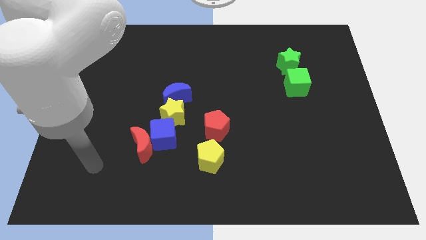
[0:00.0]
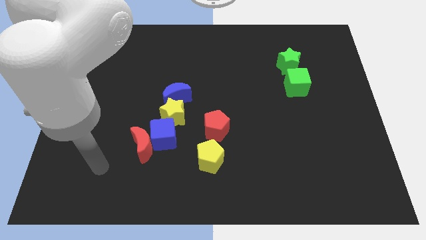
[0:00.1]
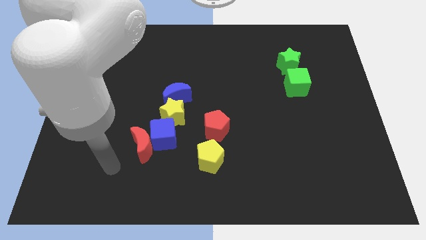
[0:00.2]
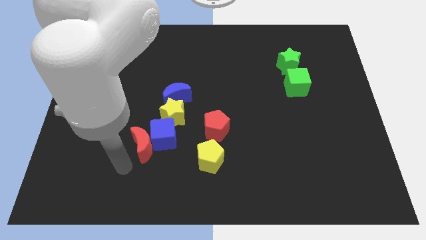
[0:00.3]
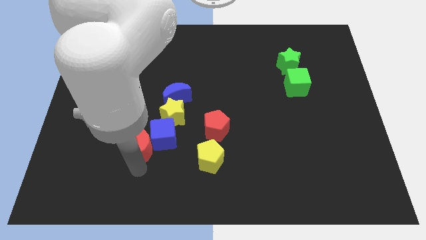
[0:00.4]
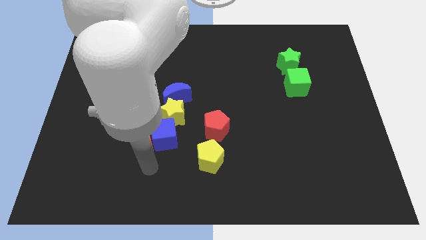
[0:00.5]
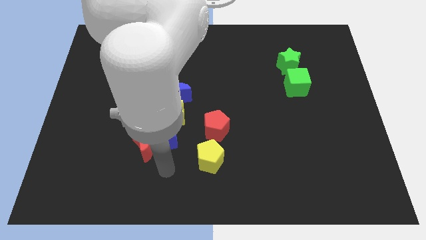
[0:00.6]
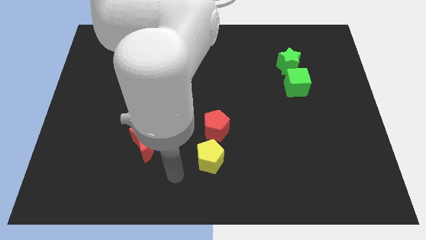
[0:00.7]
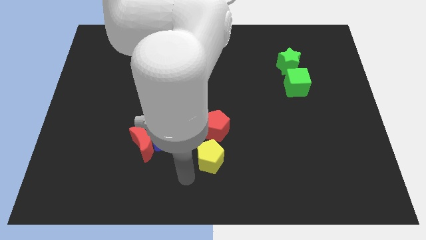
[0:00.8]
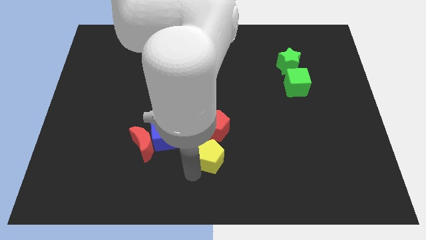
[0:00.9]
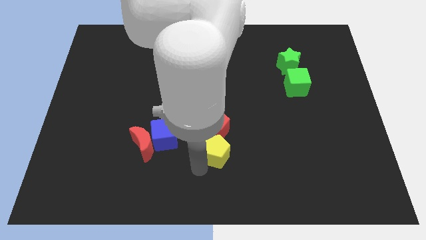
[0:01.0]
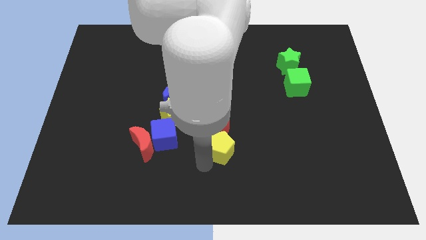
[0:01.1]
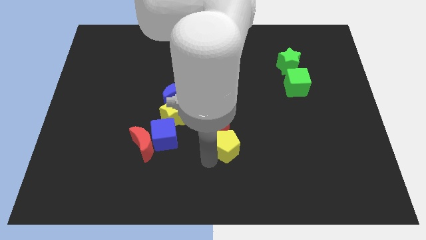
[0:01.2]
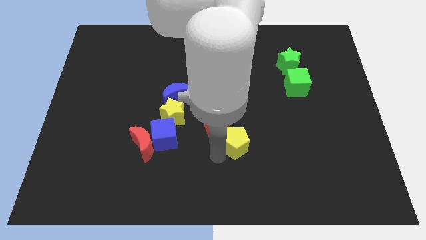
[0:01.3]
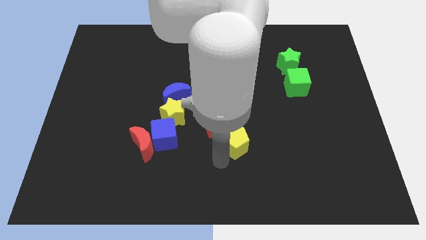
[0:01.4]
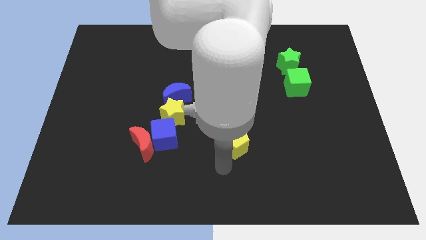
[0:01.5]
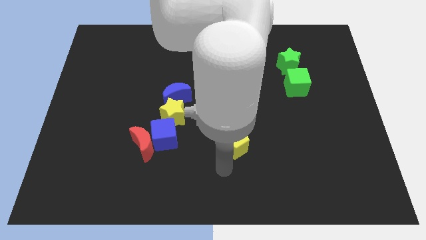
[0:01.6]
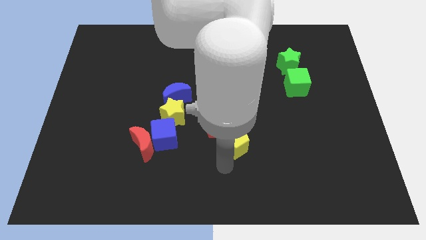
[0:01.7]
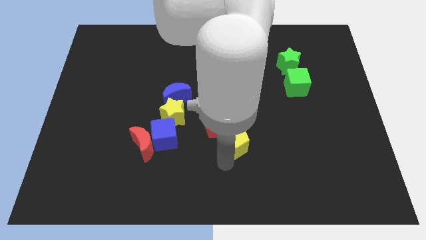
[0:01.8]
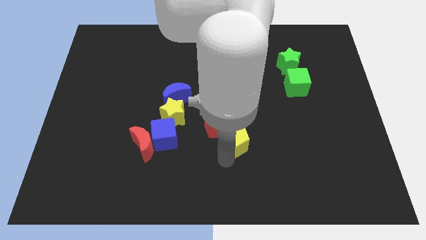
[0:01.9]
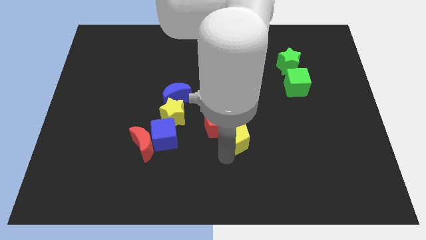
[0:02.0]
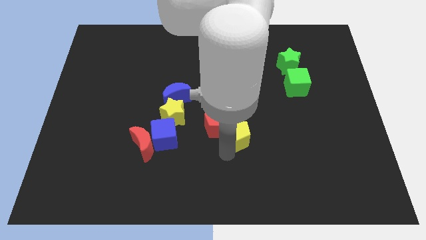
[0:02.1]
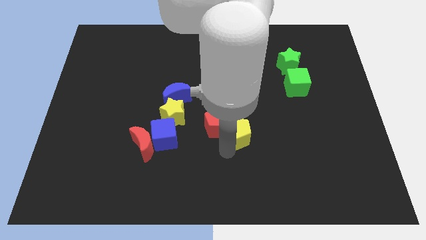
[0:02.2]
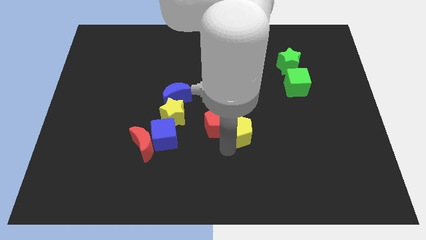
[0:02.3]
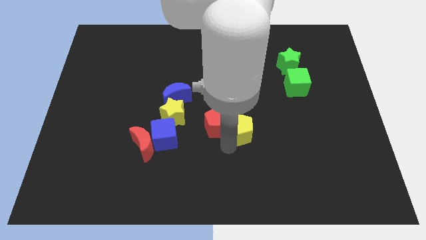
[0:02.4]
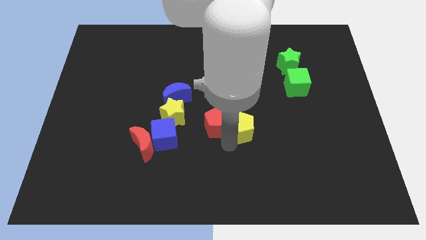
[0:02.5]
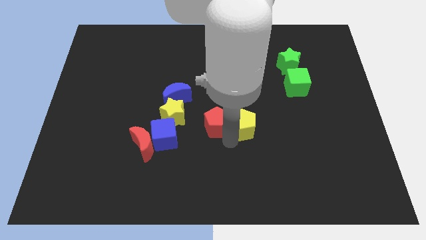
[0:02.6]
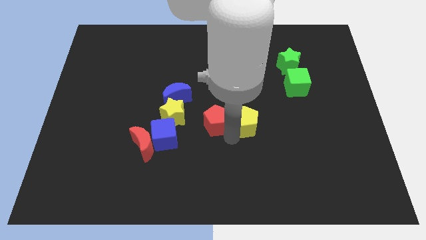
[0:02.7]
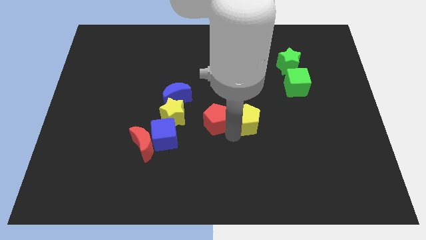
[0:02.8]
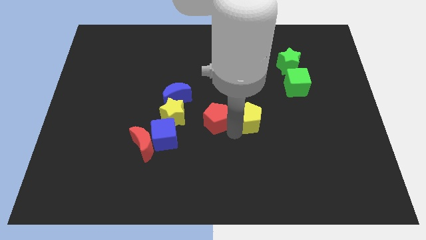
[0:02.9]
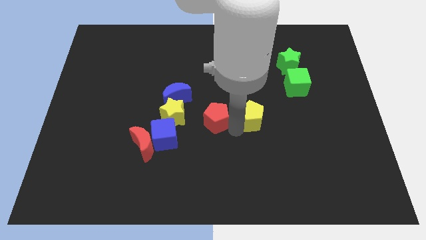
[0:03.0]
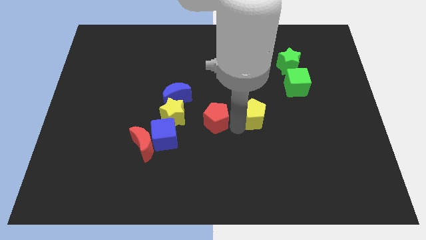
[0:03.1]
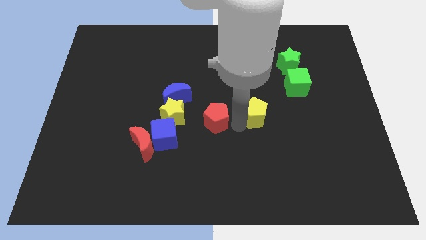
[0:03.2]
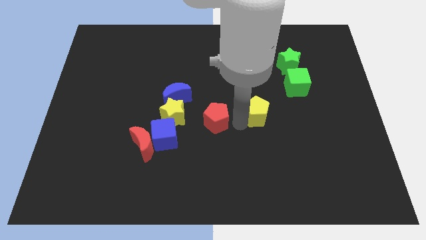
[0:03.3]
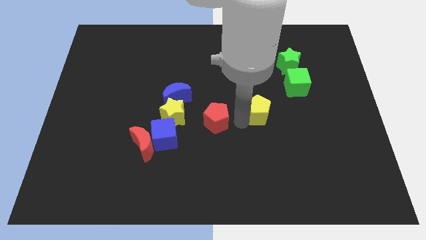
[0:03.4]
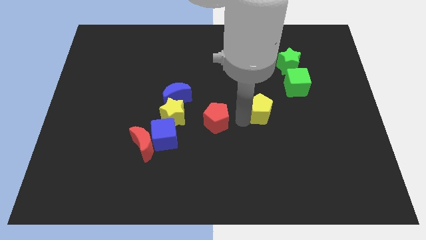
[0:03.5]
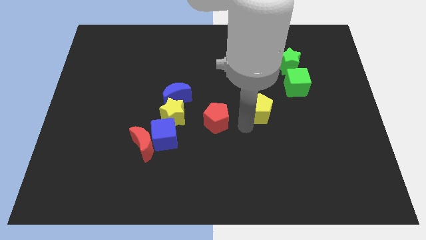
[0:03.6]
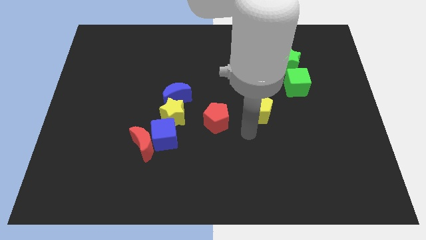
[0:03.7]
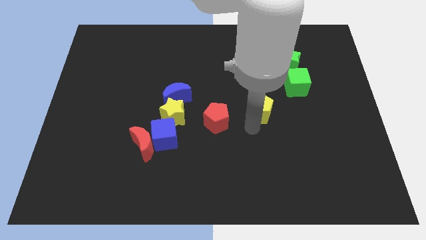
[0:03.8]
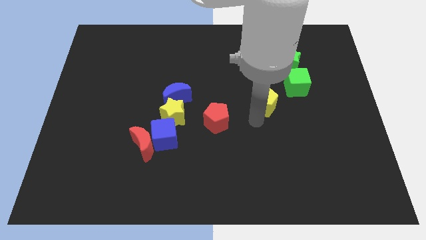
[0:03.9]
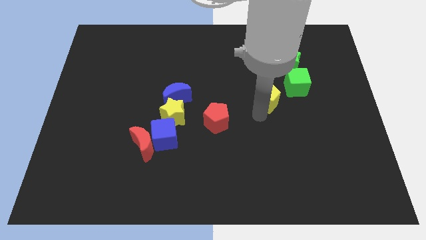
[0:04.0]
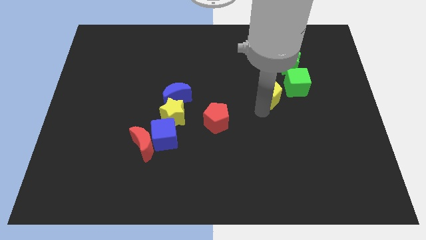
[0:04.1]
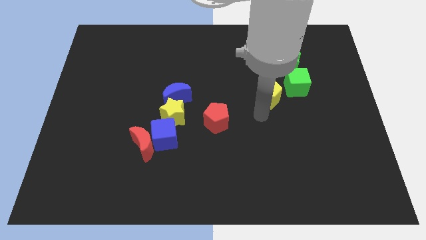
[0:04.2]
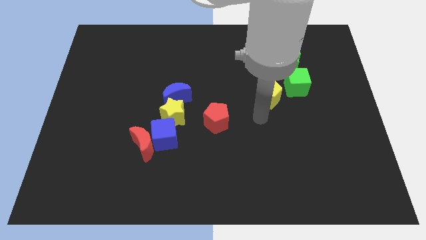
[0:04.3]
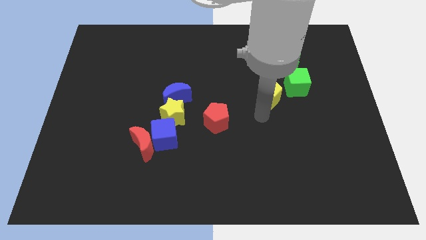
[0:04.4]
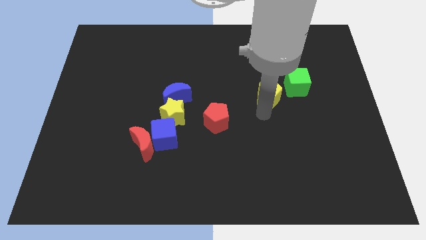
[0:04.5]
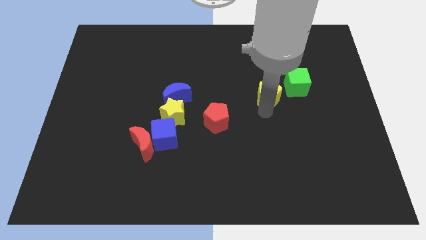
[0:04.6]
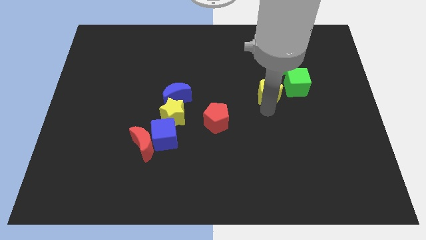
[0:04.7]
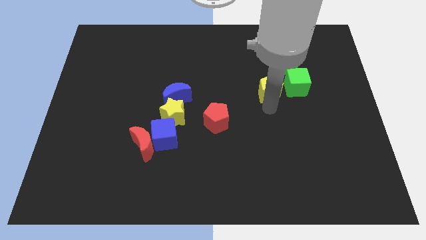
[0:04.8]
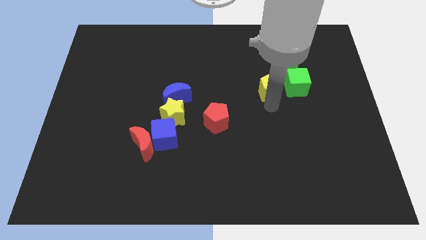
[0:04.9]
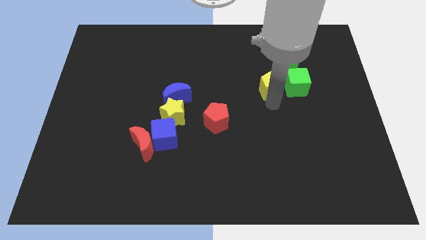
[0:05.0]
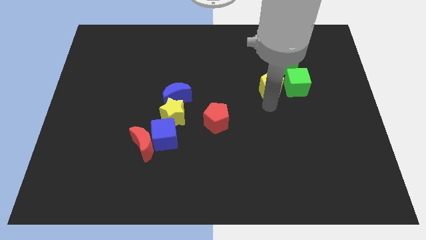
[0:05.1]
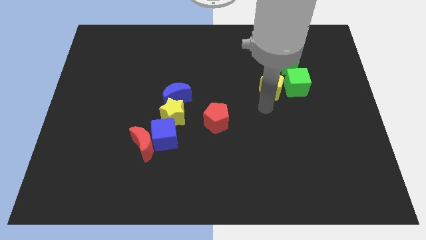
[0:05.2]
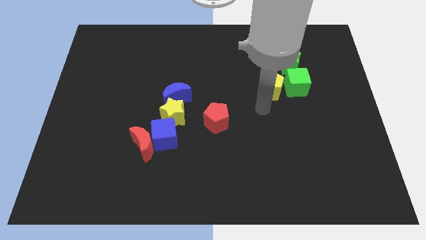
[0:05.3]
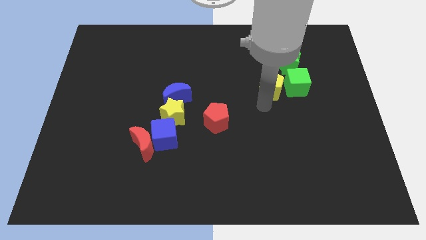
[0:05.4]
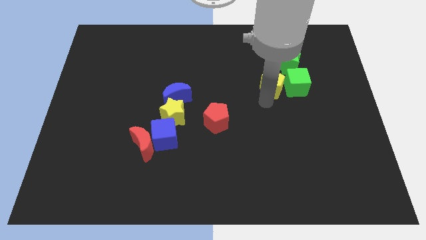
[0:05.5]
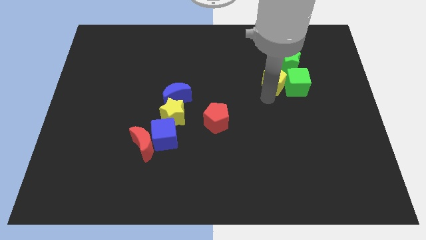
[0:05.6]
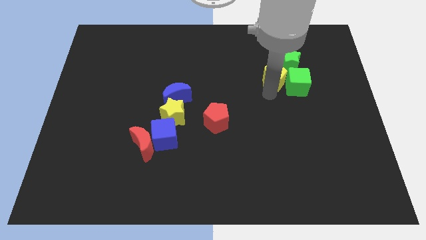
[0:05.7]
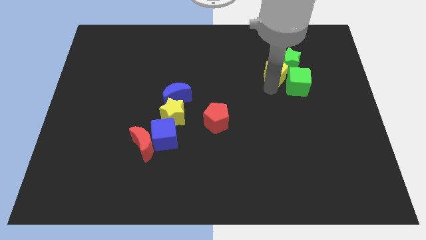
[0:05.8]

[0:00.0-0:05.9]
move the yellow pentagon next to the green star

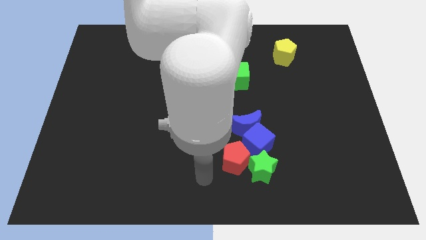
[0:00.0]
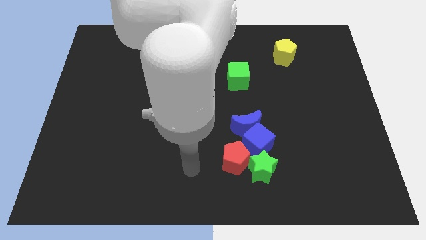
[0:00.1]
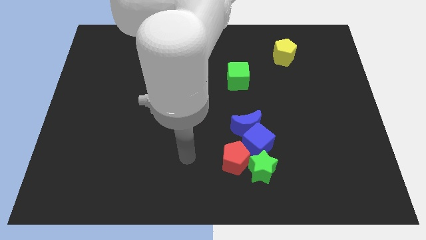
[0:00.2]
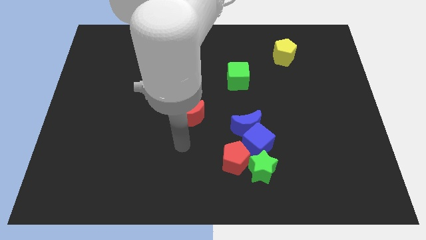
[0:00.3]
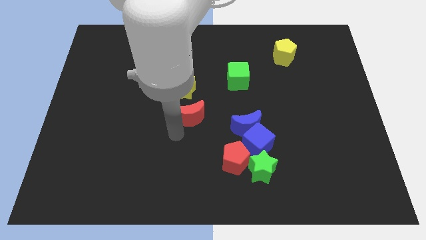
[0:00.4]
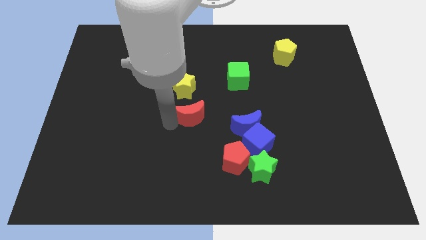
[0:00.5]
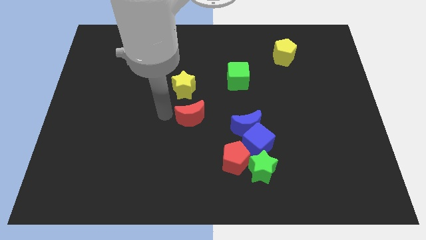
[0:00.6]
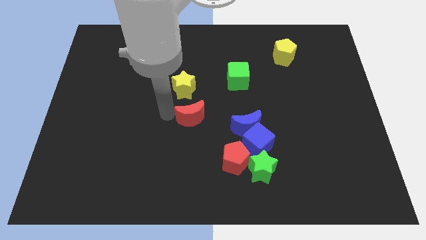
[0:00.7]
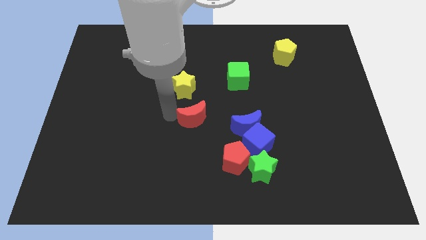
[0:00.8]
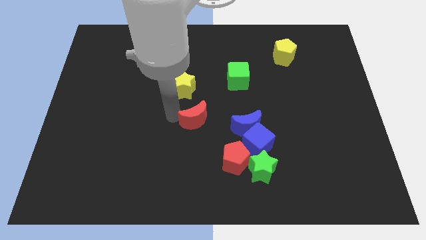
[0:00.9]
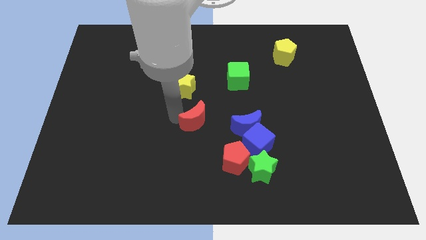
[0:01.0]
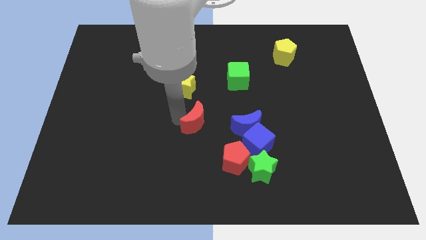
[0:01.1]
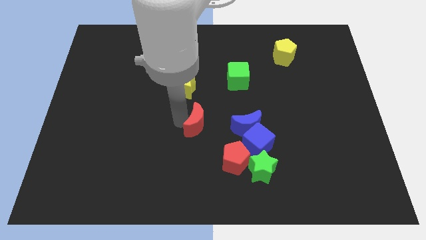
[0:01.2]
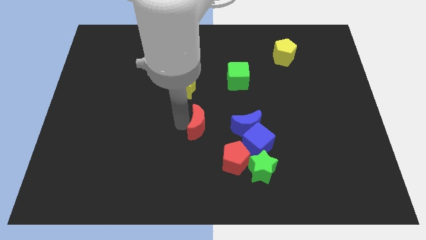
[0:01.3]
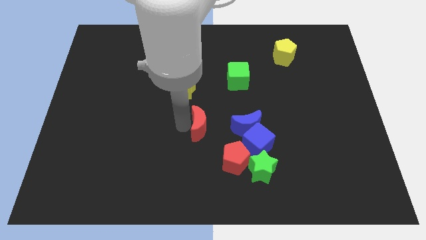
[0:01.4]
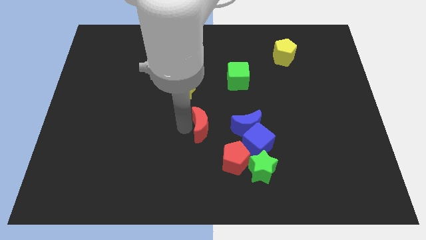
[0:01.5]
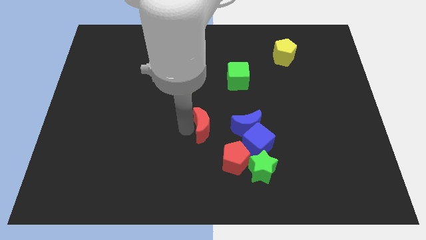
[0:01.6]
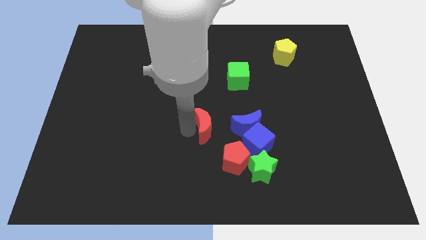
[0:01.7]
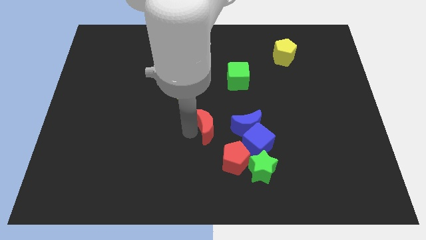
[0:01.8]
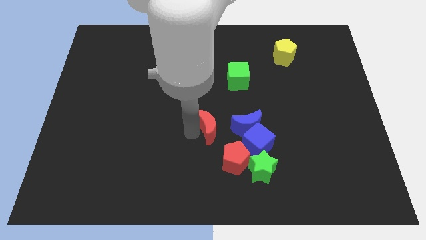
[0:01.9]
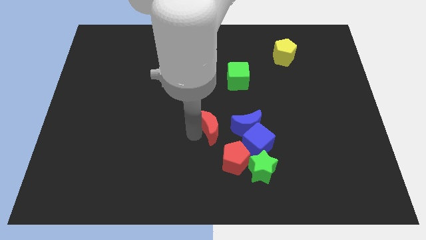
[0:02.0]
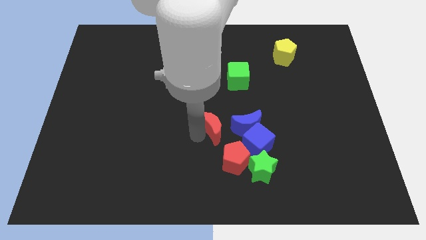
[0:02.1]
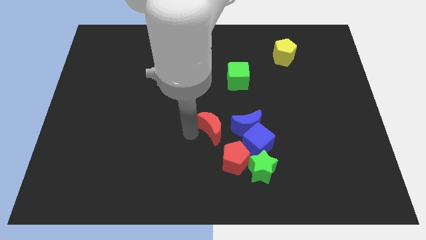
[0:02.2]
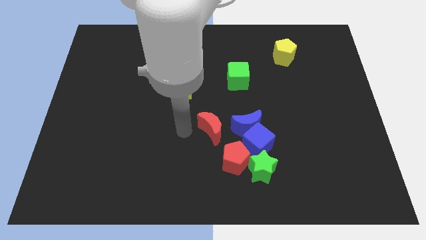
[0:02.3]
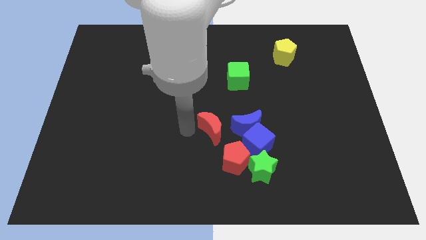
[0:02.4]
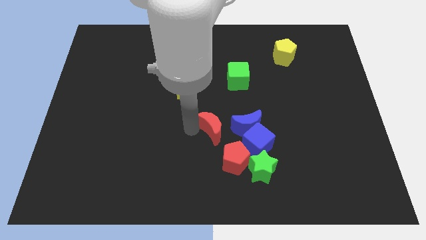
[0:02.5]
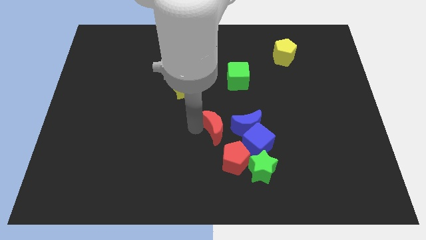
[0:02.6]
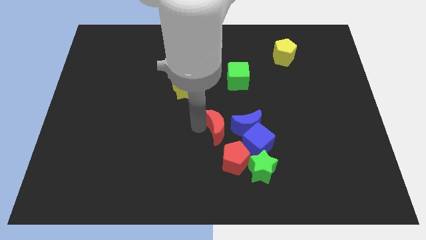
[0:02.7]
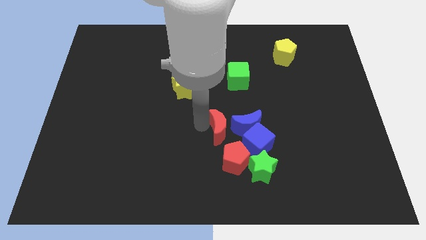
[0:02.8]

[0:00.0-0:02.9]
move the red moon next to the blue moon
